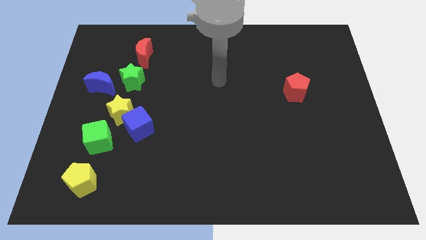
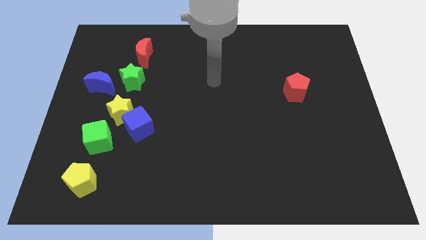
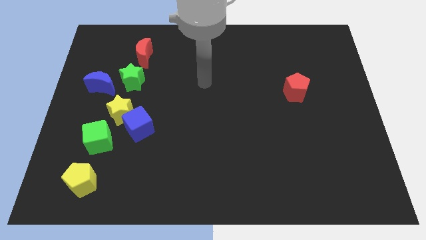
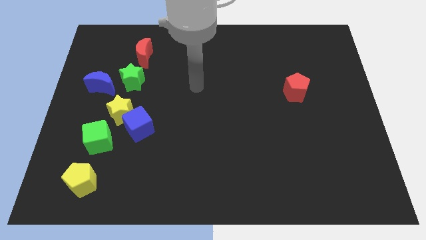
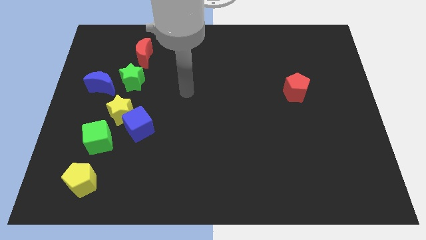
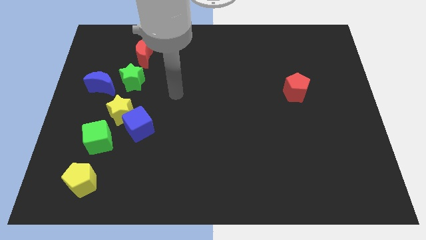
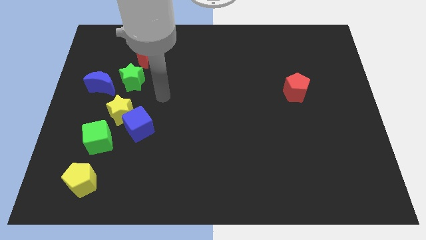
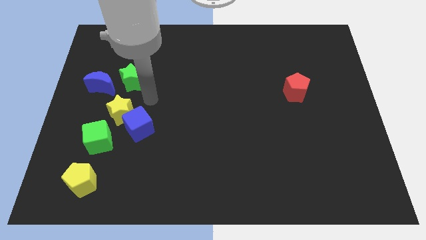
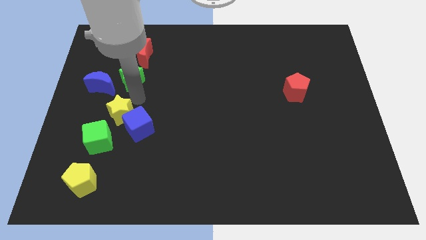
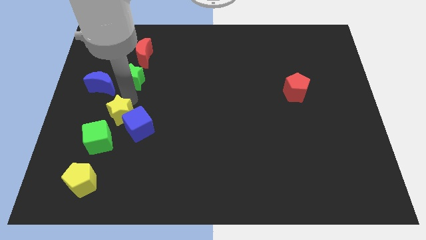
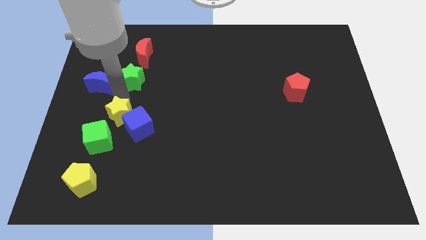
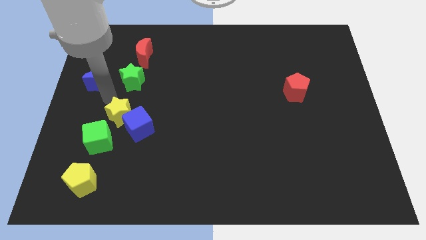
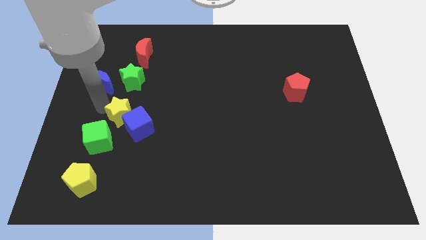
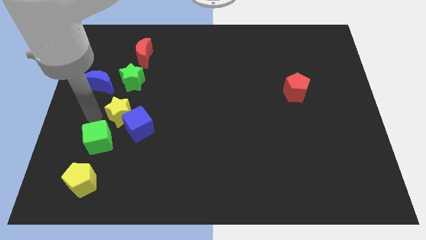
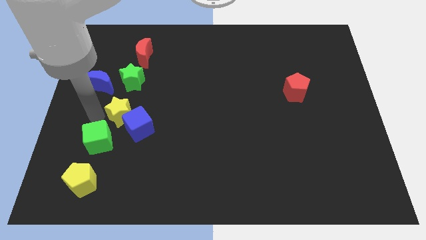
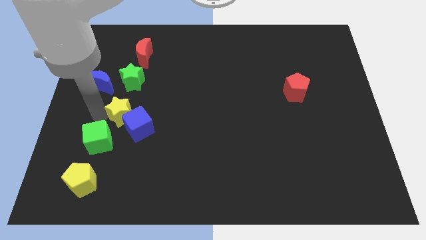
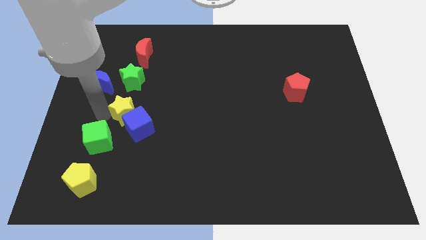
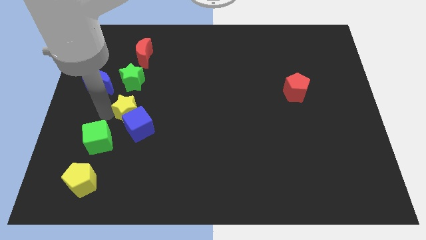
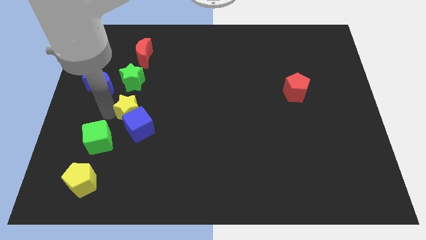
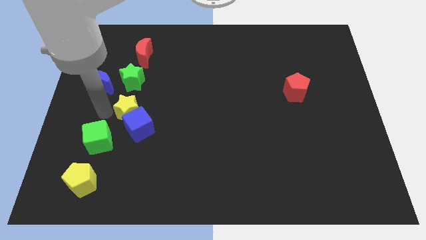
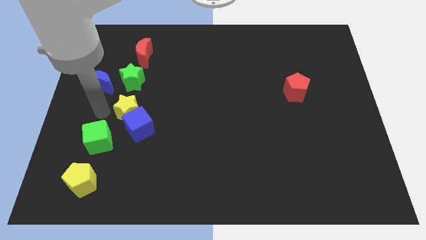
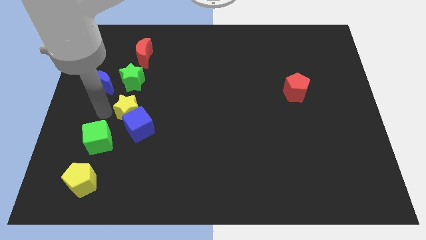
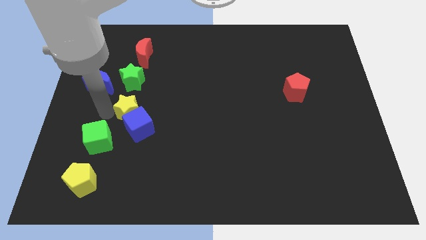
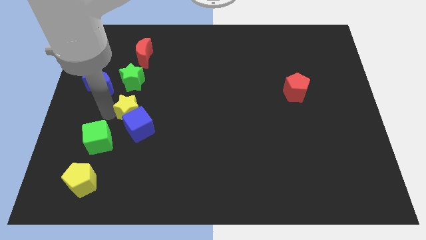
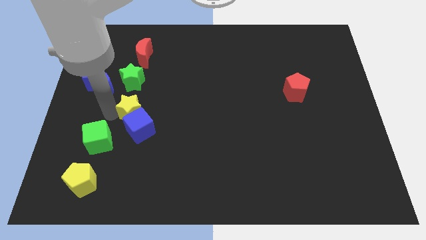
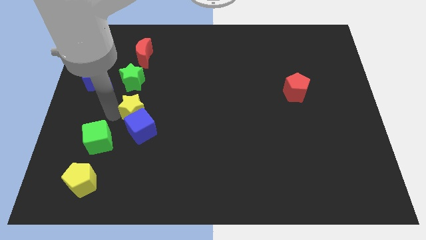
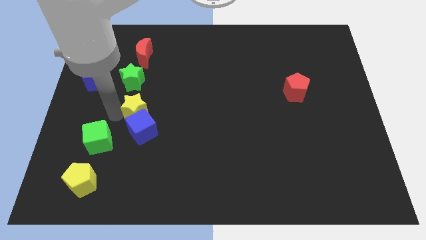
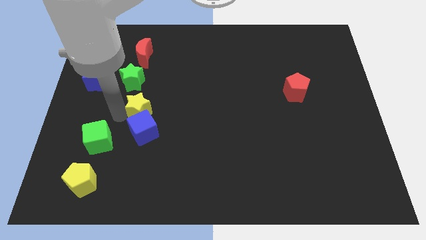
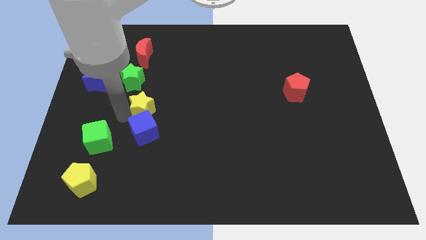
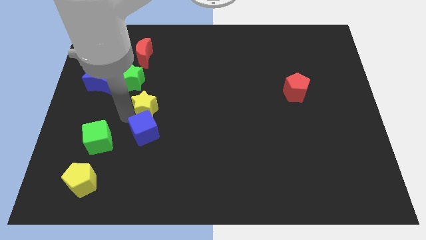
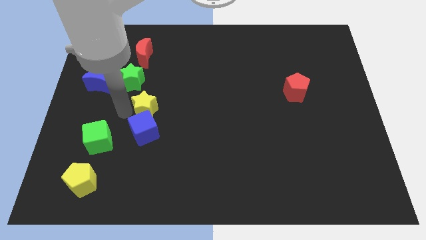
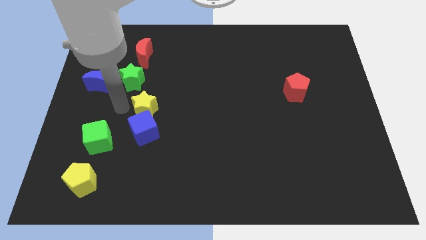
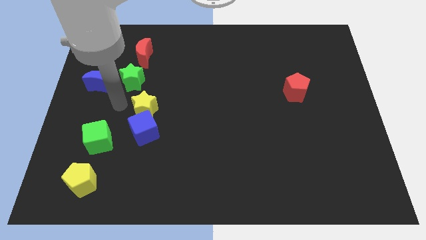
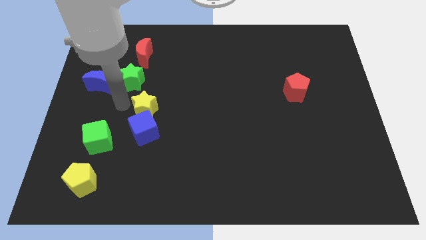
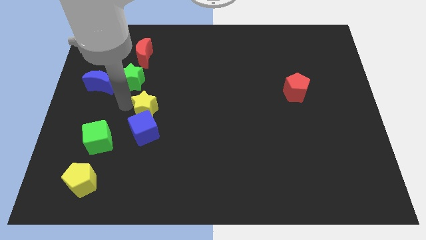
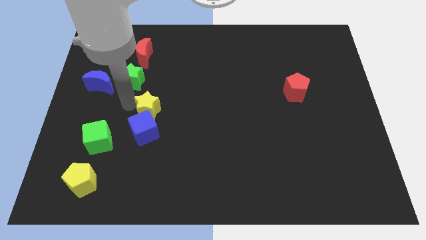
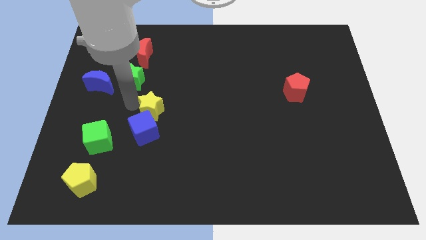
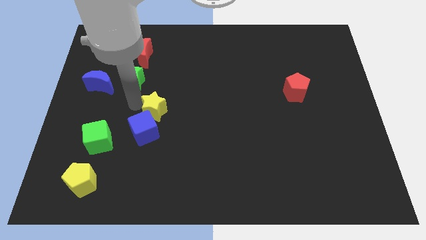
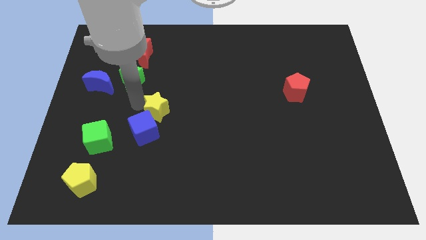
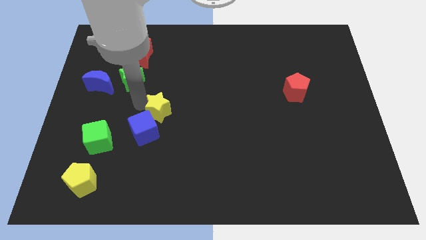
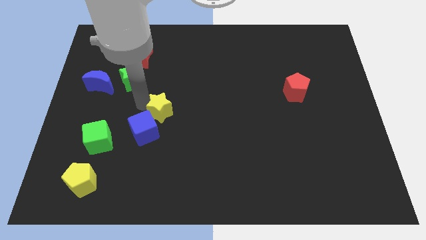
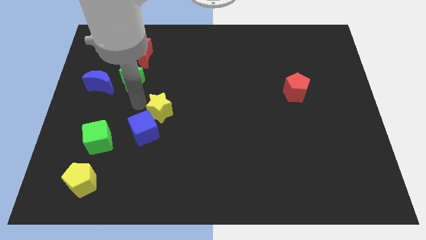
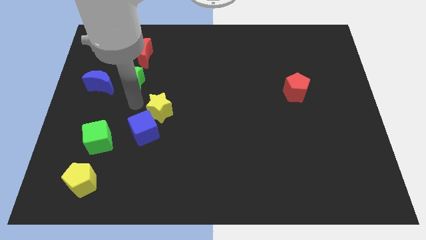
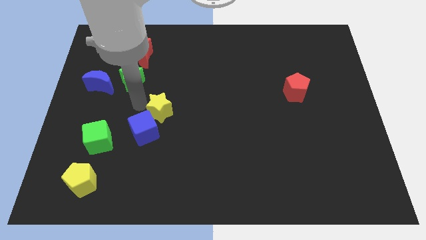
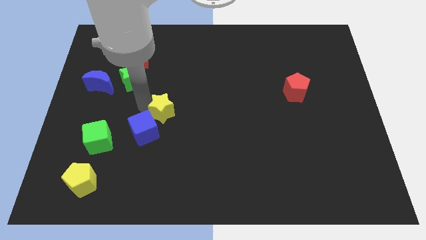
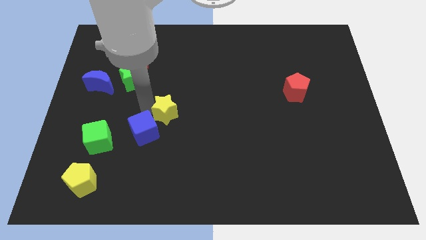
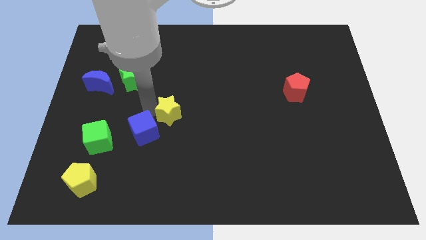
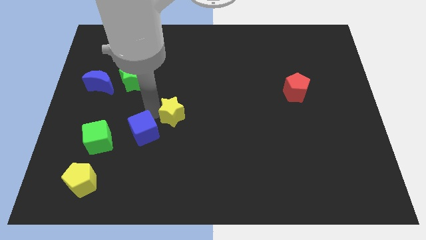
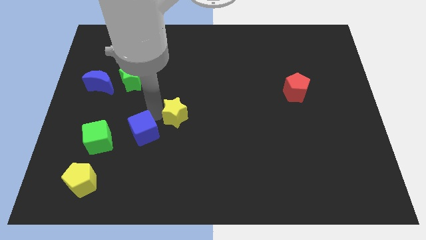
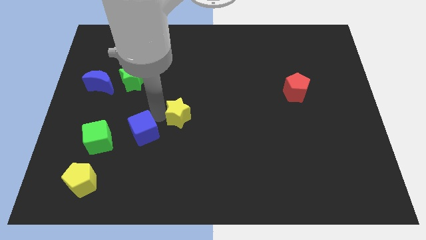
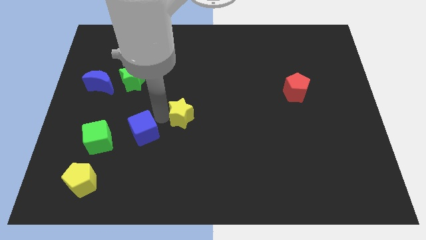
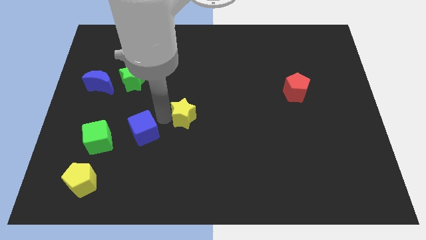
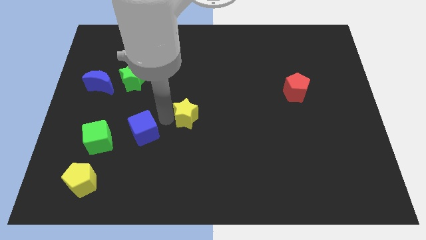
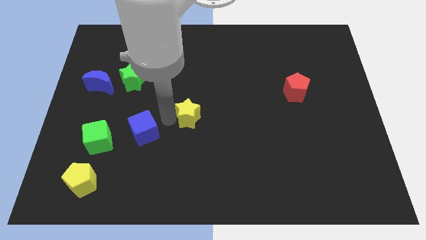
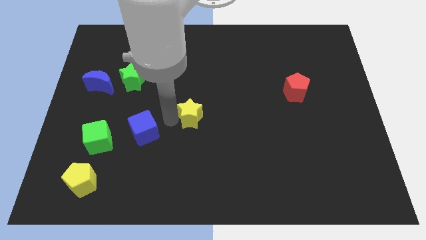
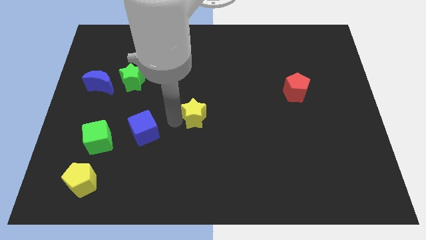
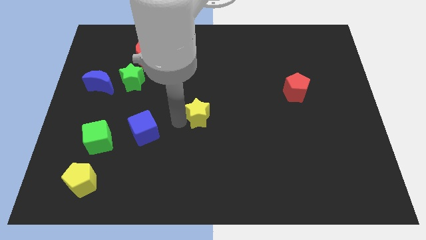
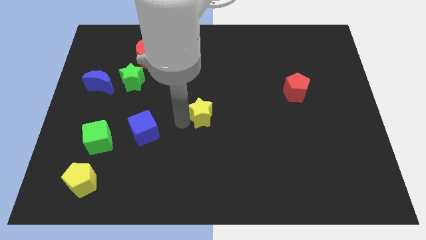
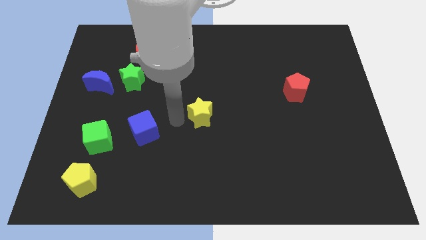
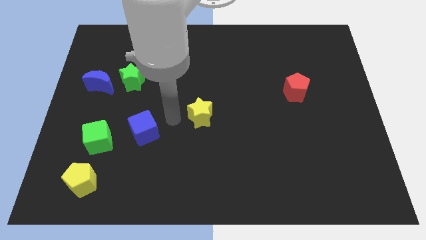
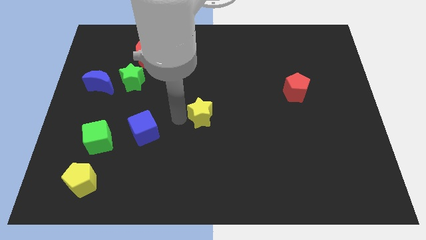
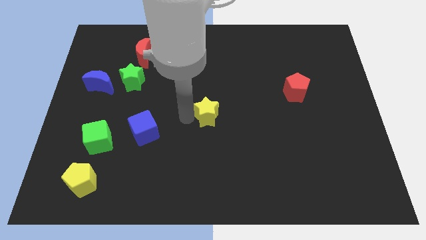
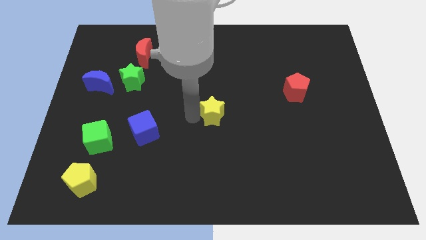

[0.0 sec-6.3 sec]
push the yellow star right

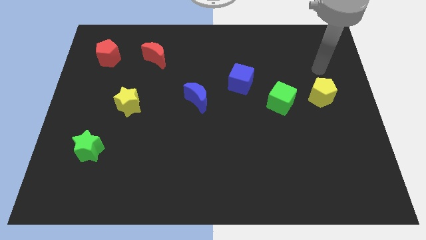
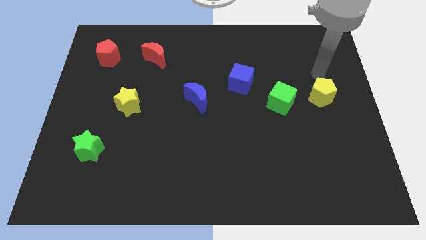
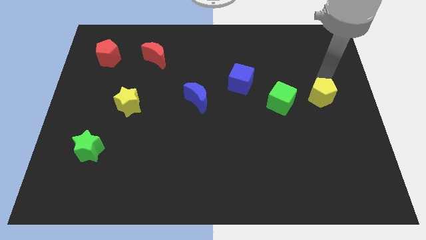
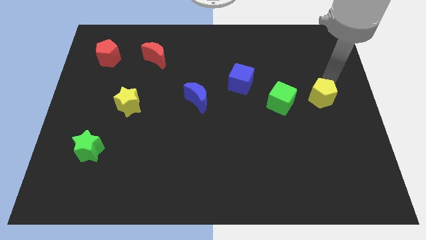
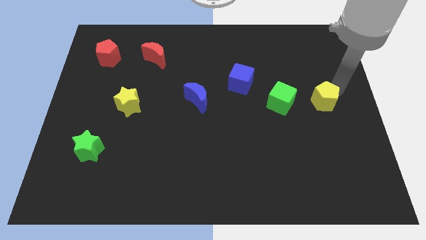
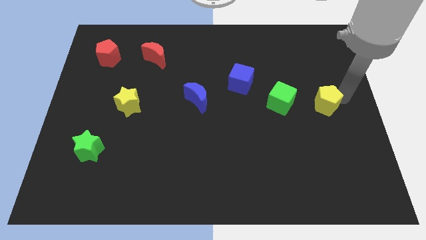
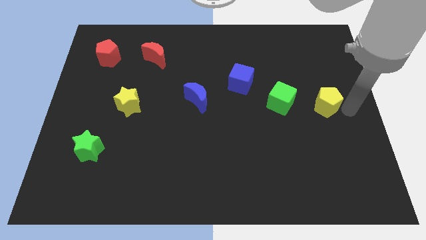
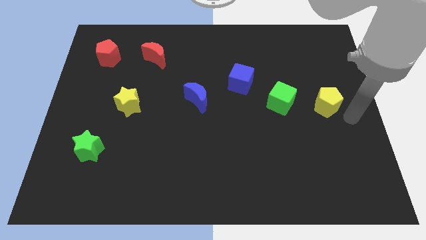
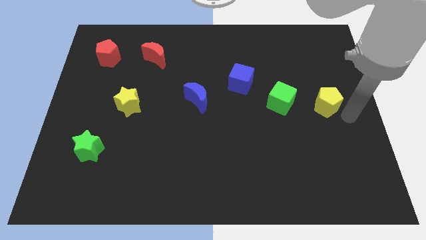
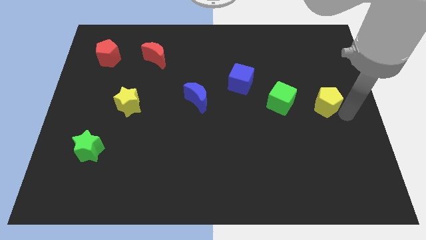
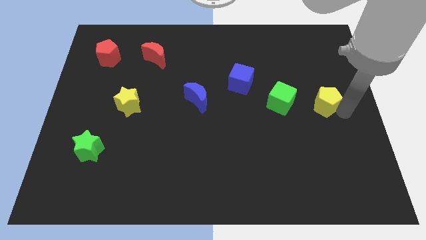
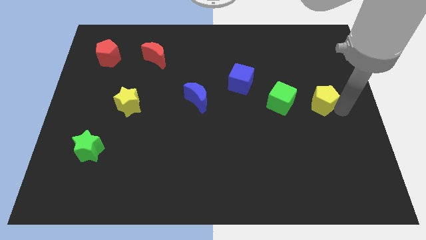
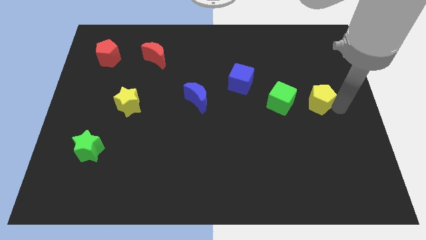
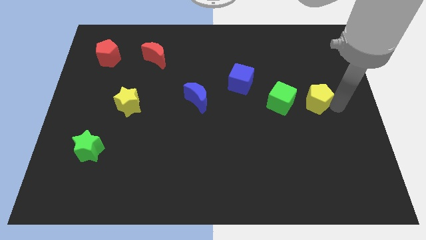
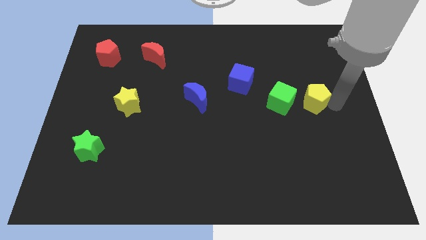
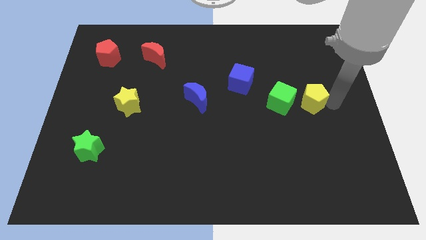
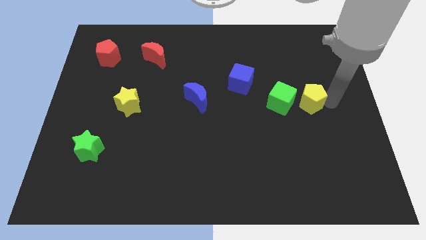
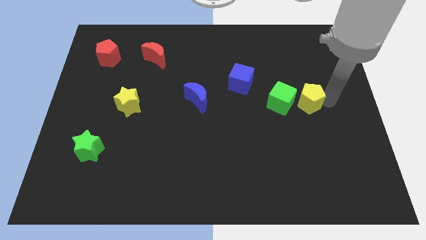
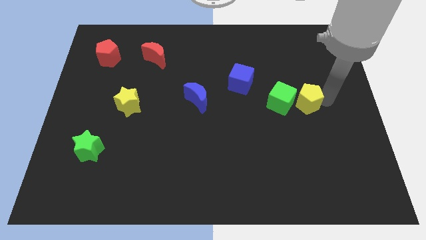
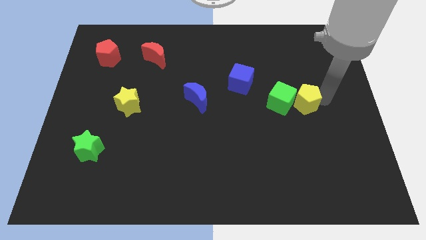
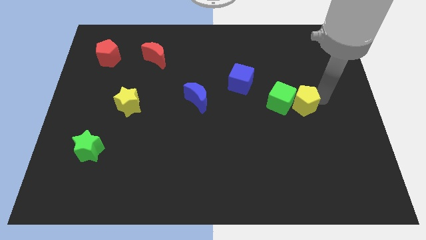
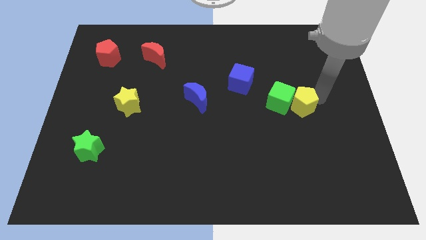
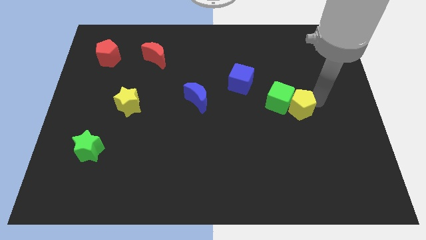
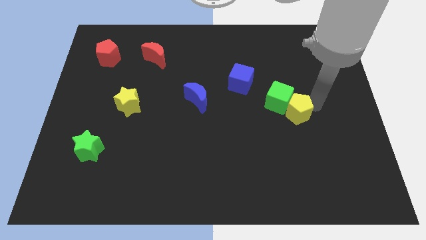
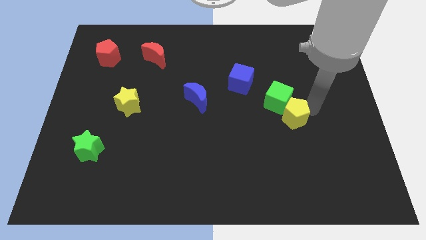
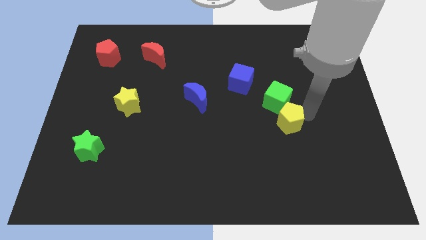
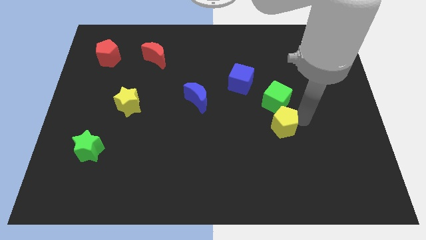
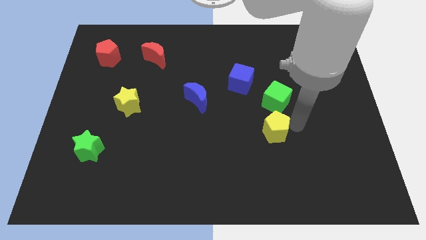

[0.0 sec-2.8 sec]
slide the yellow pentagon to the left slightly
